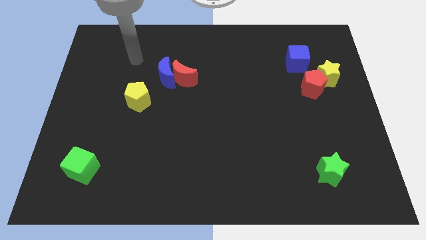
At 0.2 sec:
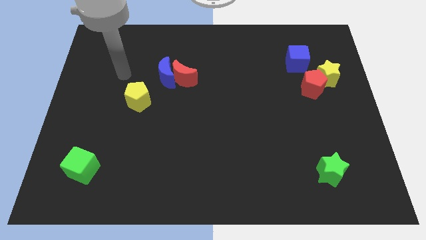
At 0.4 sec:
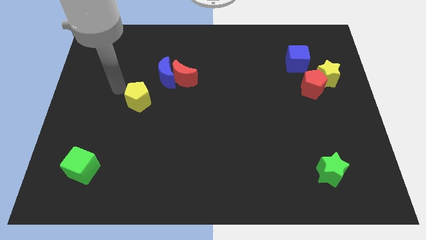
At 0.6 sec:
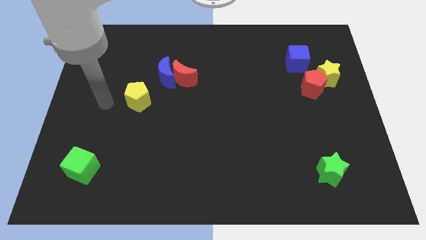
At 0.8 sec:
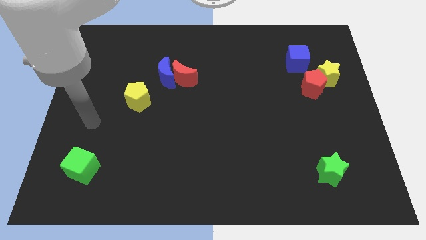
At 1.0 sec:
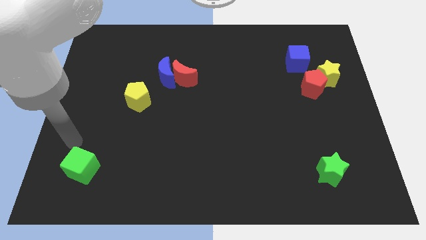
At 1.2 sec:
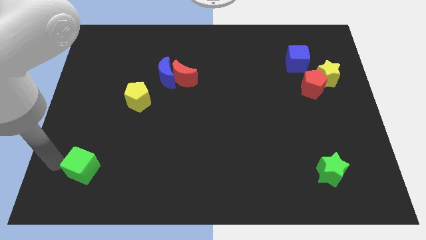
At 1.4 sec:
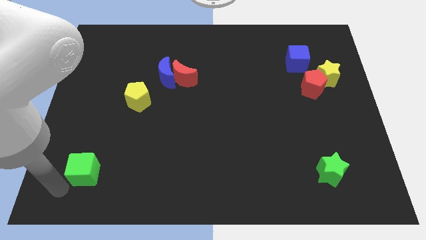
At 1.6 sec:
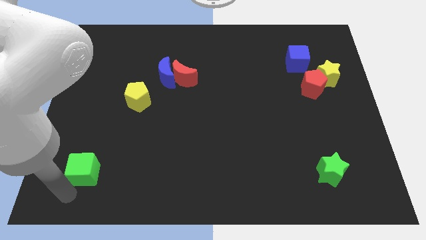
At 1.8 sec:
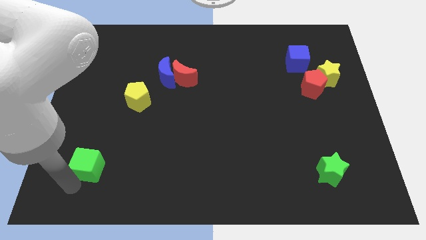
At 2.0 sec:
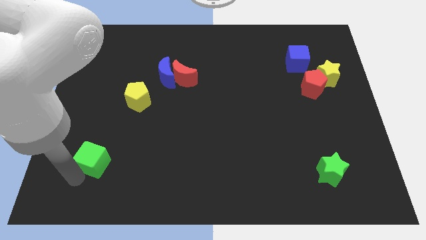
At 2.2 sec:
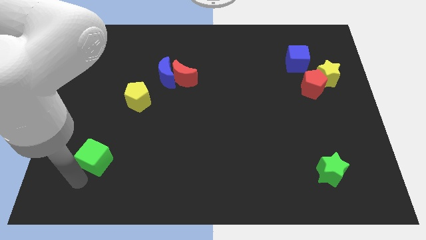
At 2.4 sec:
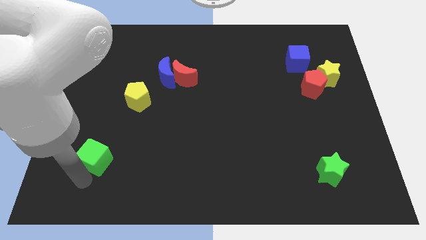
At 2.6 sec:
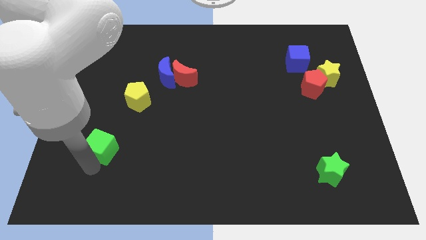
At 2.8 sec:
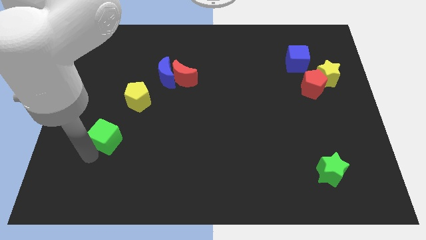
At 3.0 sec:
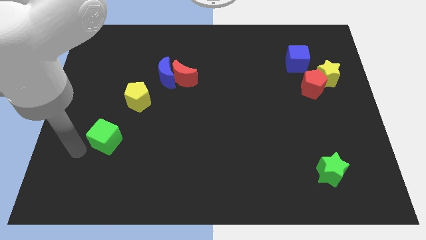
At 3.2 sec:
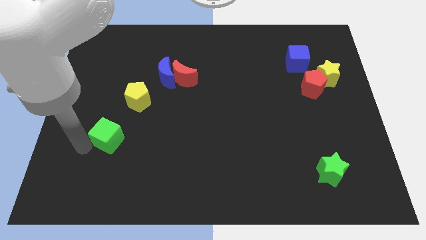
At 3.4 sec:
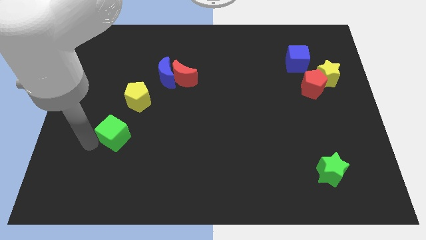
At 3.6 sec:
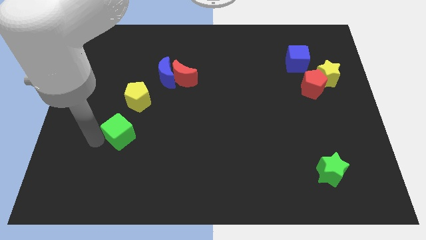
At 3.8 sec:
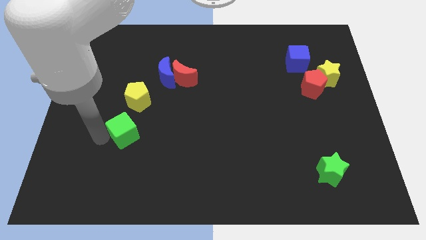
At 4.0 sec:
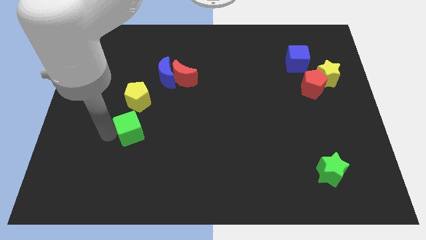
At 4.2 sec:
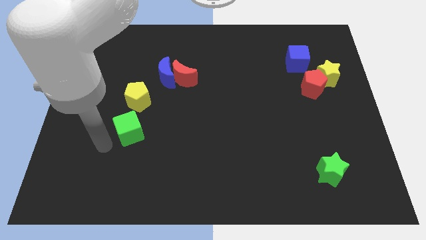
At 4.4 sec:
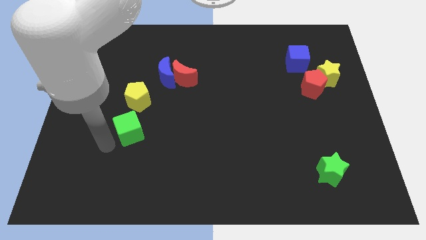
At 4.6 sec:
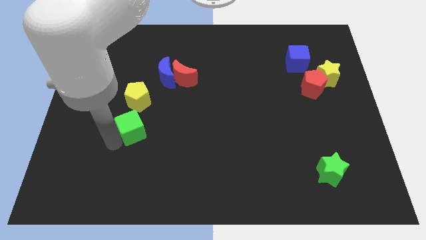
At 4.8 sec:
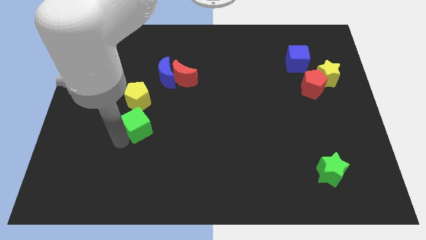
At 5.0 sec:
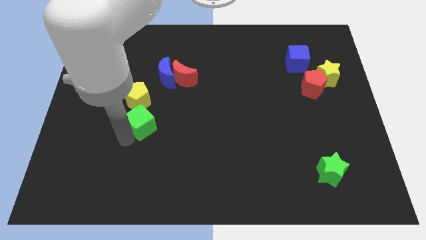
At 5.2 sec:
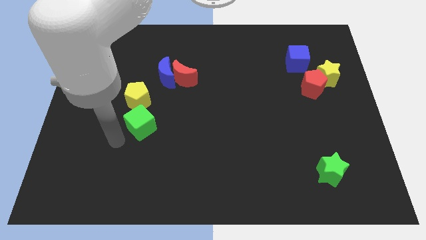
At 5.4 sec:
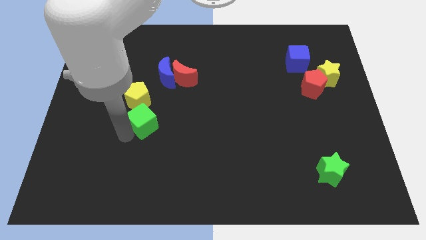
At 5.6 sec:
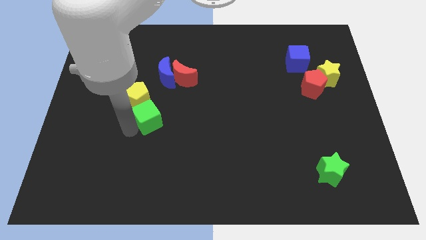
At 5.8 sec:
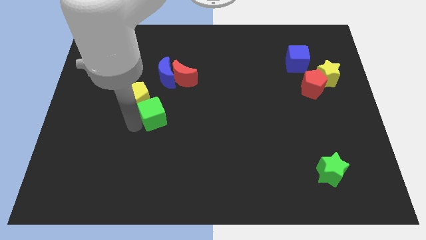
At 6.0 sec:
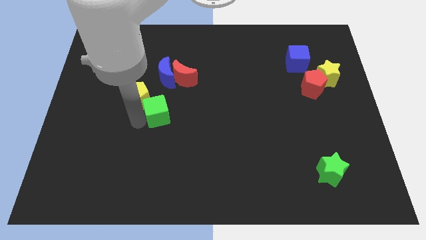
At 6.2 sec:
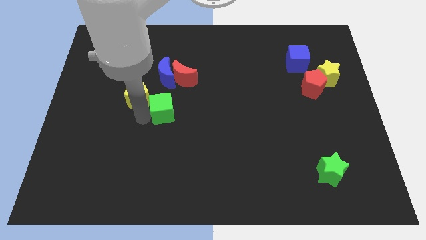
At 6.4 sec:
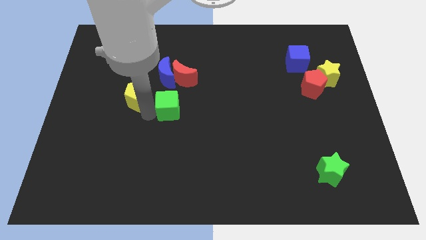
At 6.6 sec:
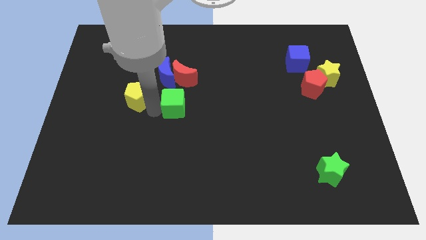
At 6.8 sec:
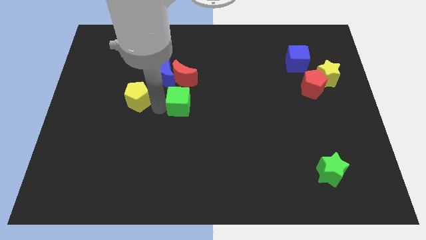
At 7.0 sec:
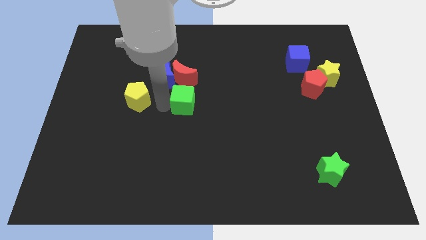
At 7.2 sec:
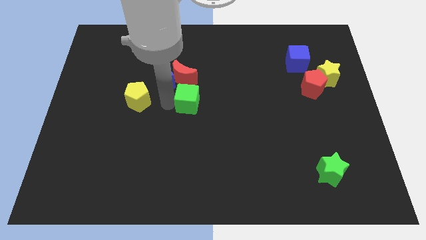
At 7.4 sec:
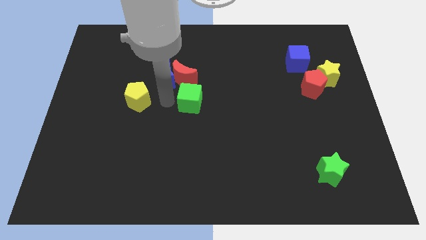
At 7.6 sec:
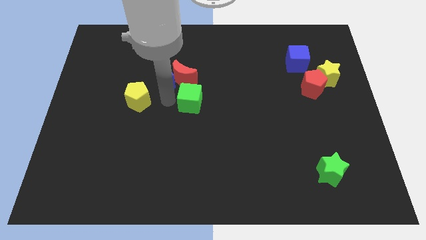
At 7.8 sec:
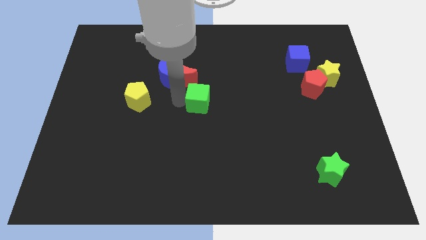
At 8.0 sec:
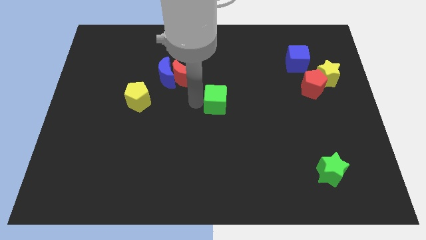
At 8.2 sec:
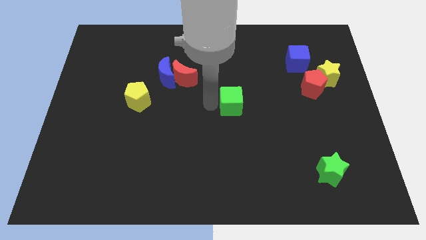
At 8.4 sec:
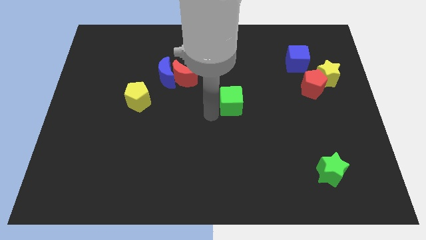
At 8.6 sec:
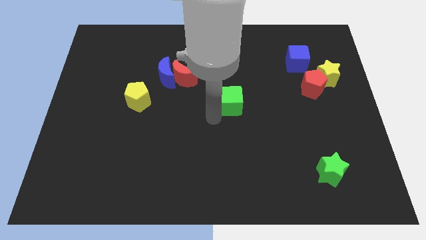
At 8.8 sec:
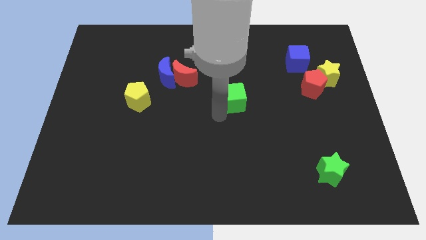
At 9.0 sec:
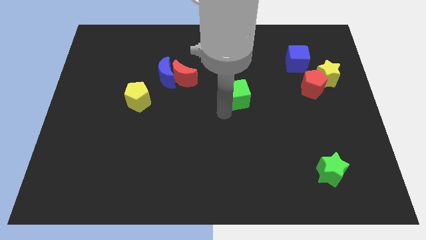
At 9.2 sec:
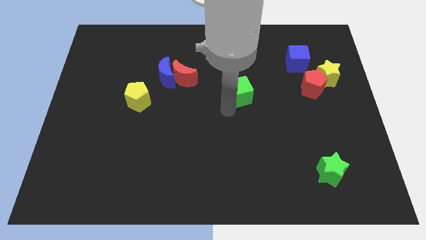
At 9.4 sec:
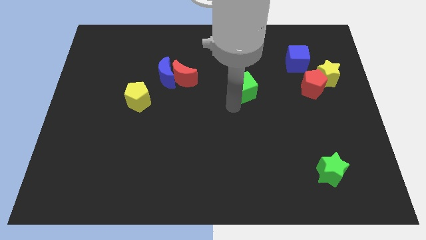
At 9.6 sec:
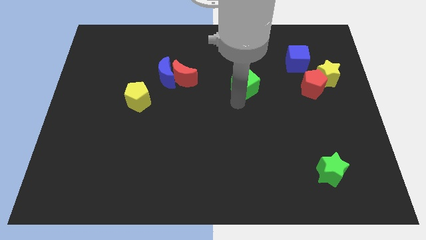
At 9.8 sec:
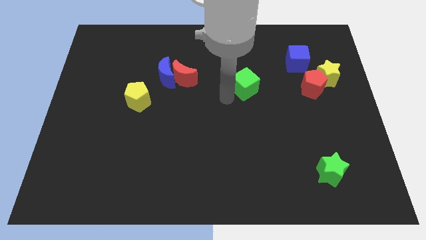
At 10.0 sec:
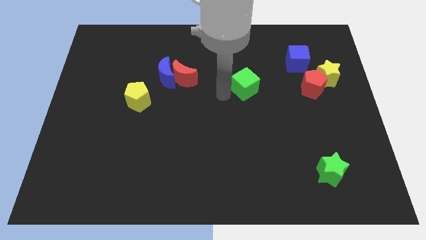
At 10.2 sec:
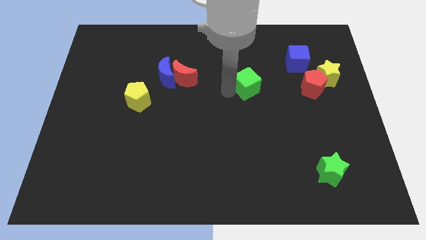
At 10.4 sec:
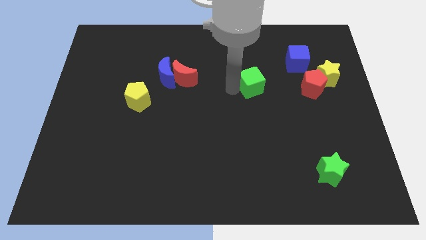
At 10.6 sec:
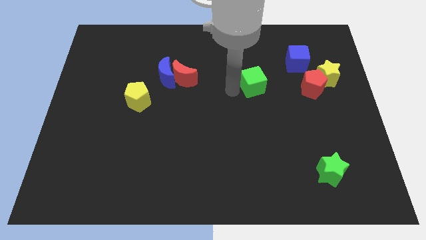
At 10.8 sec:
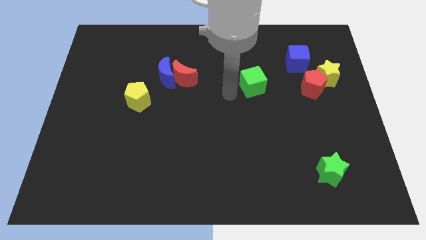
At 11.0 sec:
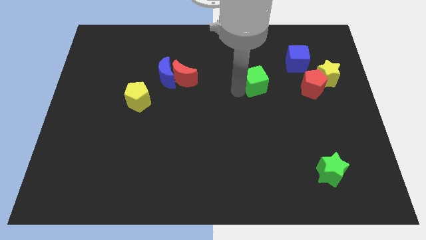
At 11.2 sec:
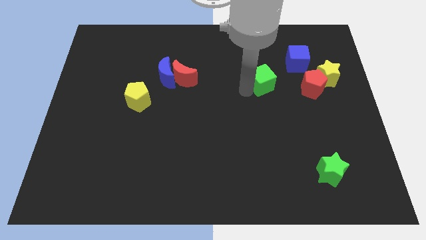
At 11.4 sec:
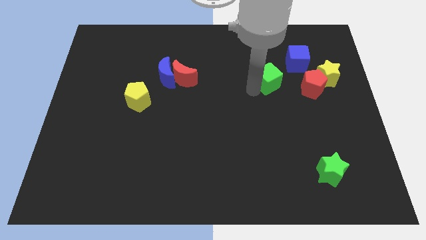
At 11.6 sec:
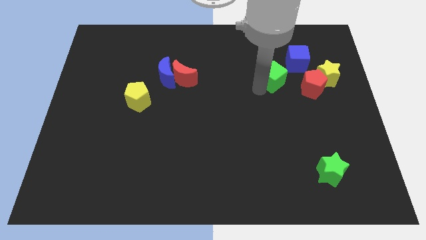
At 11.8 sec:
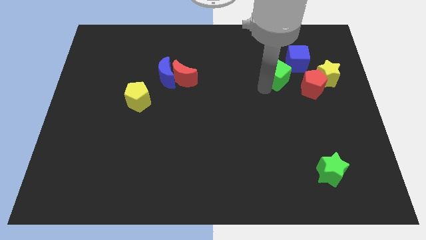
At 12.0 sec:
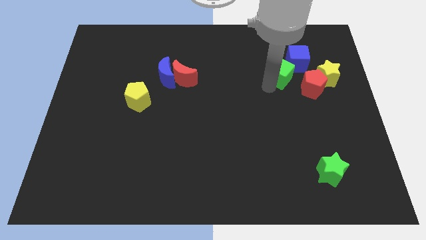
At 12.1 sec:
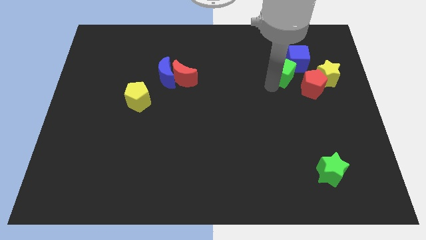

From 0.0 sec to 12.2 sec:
slide the green cube close to the blue cube

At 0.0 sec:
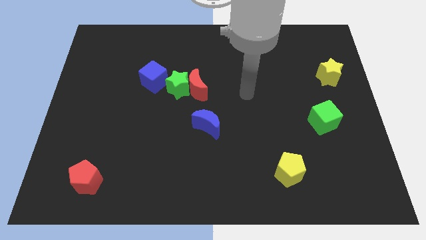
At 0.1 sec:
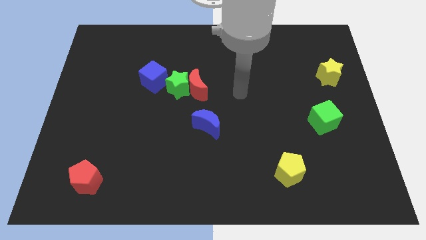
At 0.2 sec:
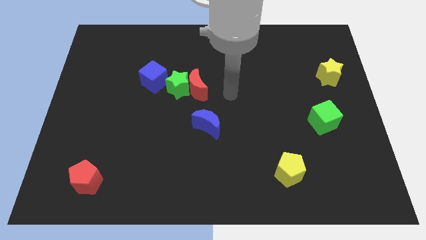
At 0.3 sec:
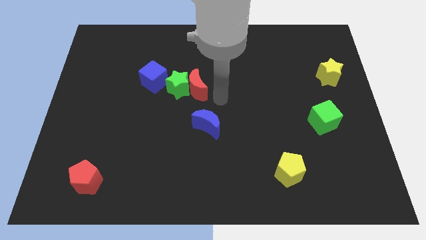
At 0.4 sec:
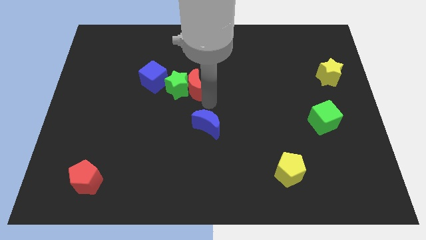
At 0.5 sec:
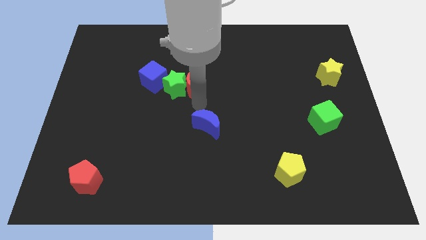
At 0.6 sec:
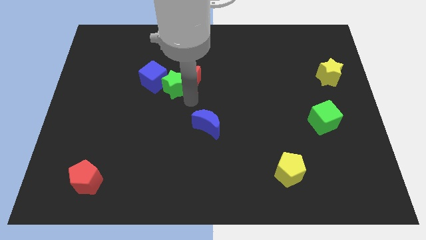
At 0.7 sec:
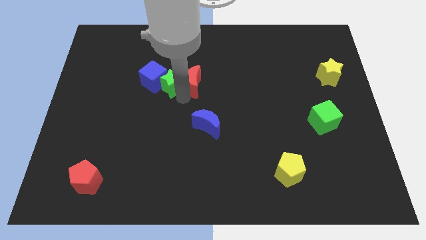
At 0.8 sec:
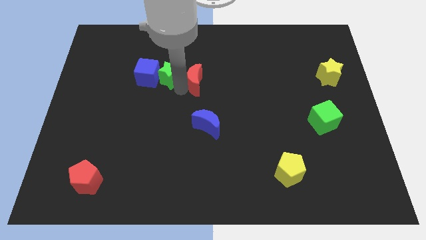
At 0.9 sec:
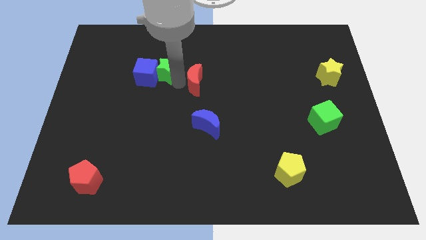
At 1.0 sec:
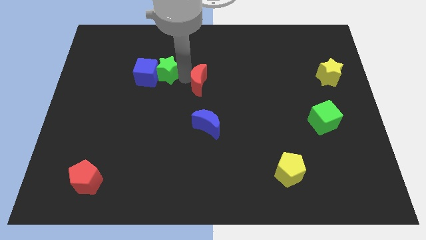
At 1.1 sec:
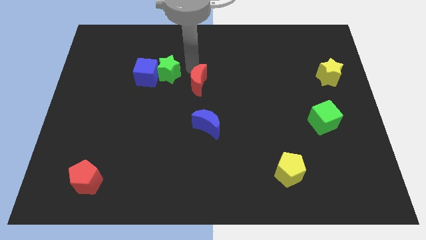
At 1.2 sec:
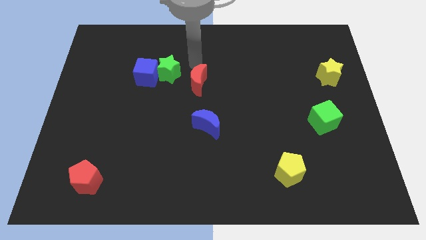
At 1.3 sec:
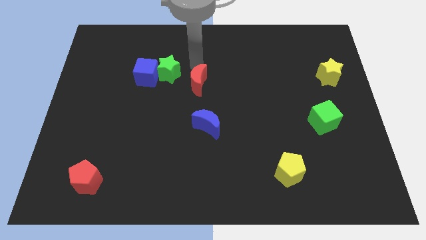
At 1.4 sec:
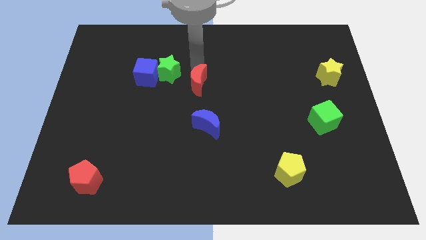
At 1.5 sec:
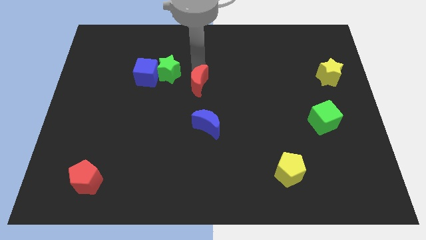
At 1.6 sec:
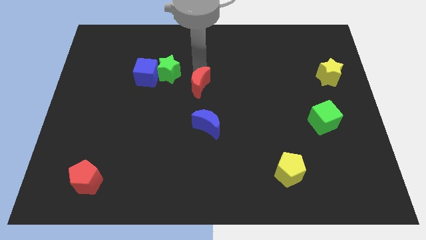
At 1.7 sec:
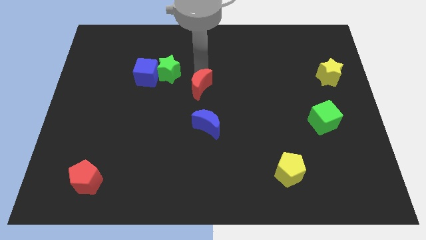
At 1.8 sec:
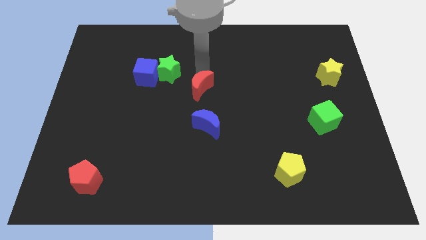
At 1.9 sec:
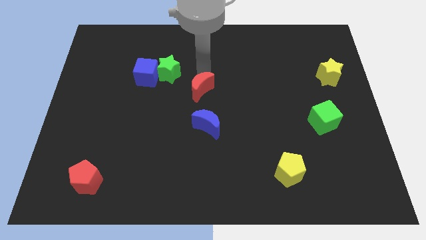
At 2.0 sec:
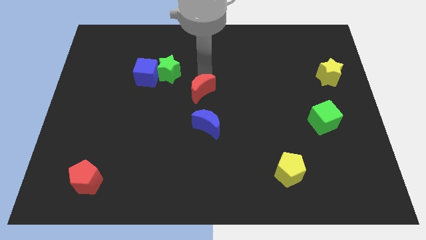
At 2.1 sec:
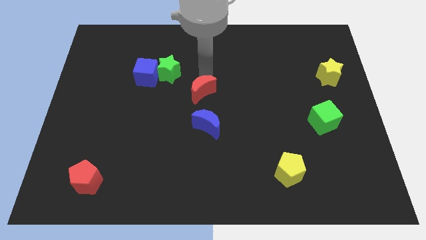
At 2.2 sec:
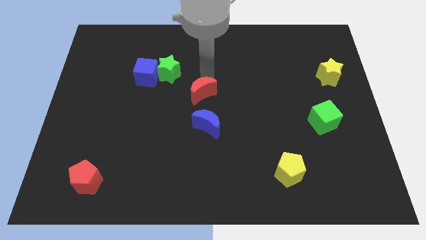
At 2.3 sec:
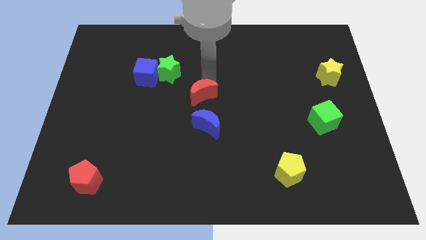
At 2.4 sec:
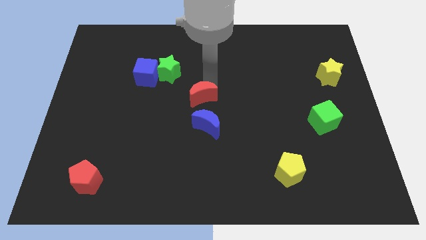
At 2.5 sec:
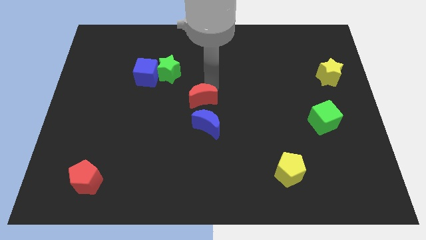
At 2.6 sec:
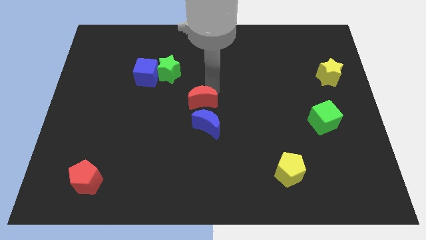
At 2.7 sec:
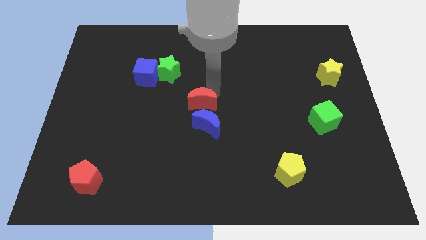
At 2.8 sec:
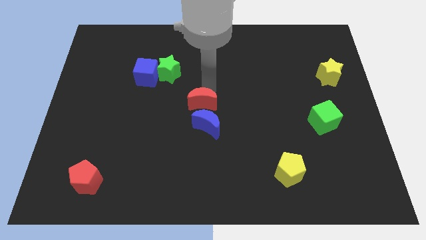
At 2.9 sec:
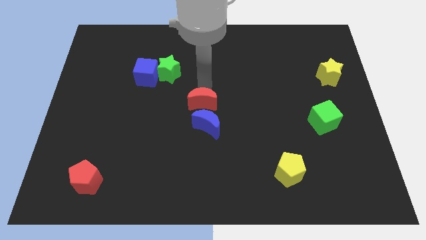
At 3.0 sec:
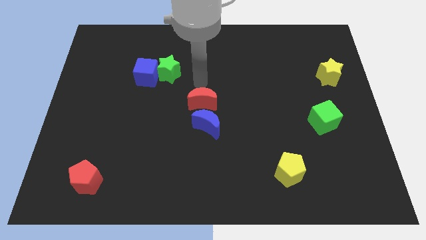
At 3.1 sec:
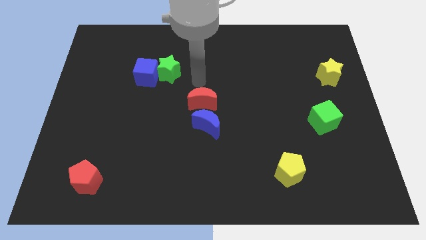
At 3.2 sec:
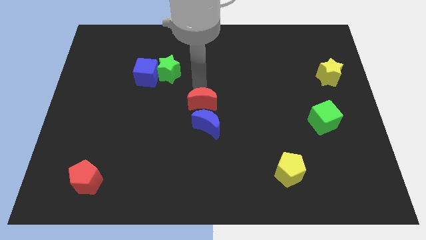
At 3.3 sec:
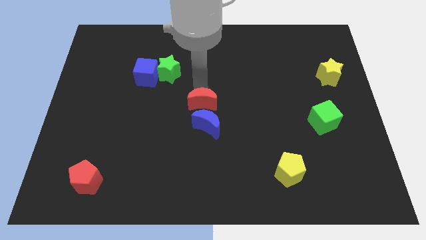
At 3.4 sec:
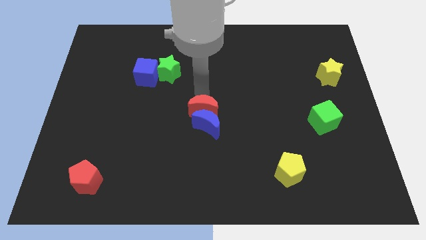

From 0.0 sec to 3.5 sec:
slide the red moon to the blue moon
